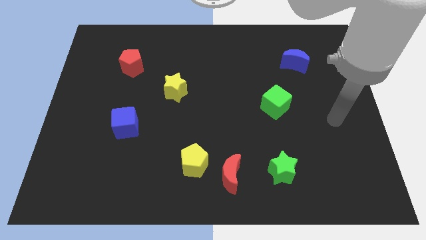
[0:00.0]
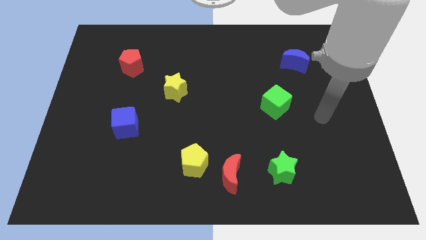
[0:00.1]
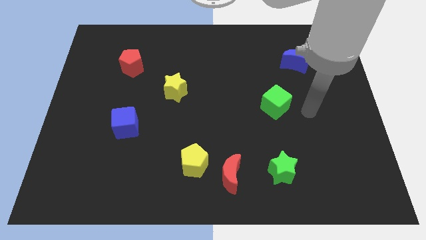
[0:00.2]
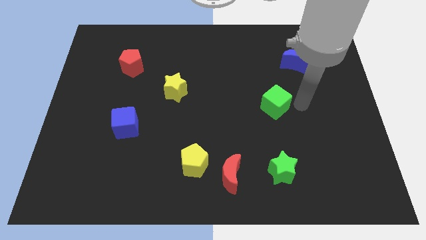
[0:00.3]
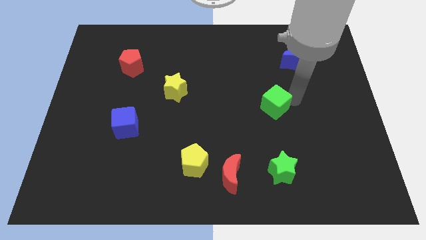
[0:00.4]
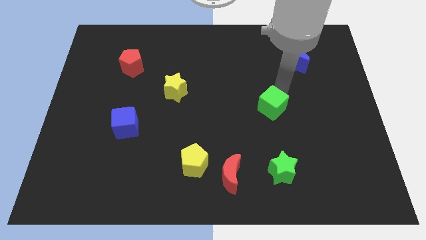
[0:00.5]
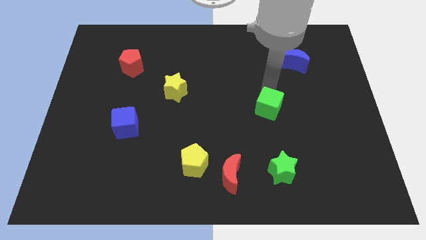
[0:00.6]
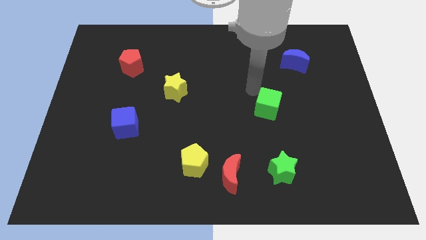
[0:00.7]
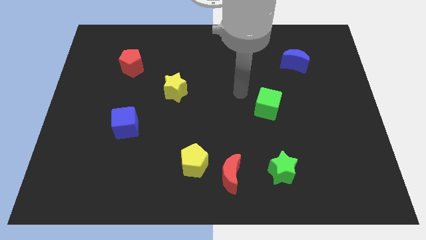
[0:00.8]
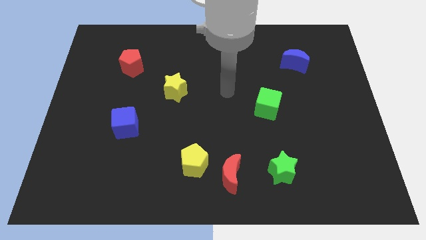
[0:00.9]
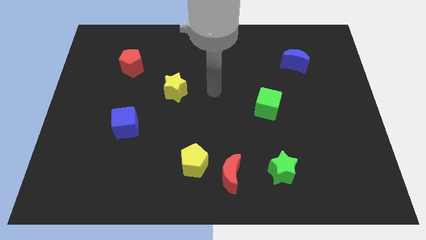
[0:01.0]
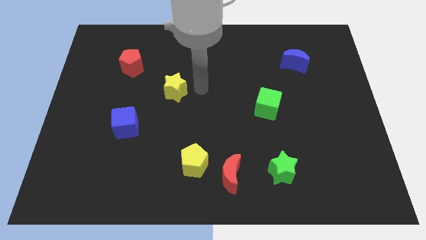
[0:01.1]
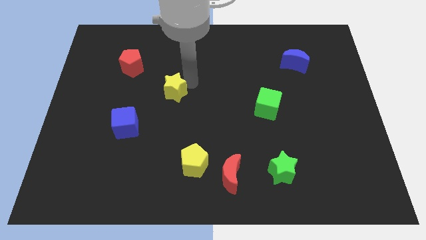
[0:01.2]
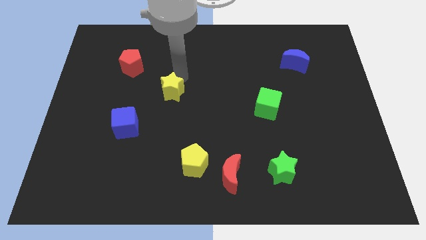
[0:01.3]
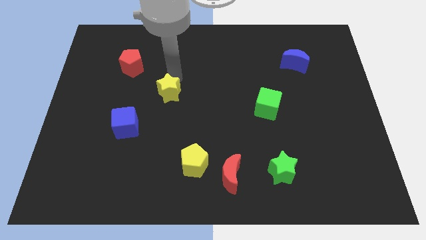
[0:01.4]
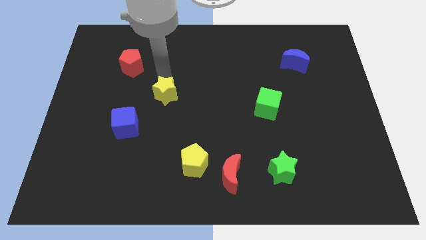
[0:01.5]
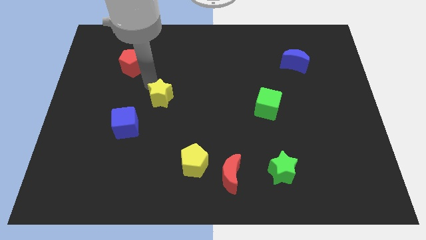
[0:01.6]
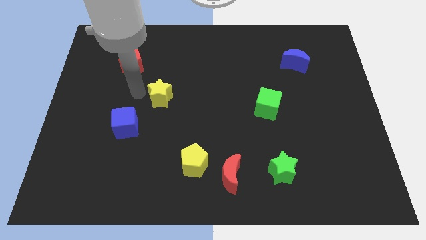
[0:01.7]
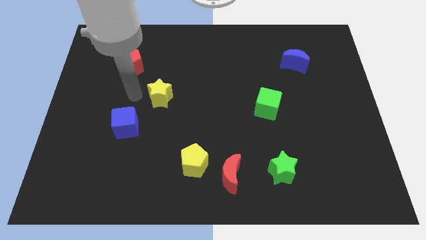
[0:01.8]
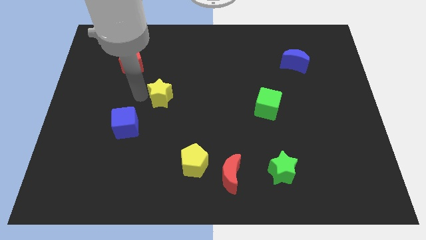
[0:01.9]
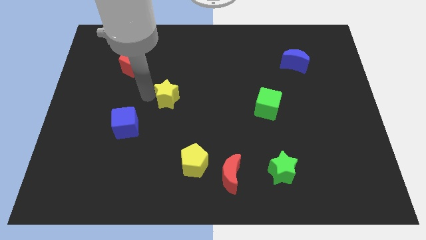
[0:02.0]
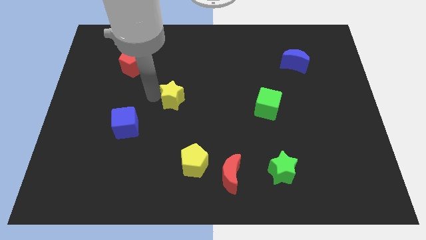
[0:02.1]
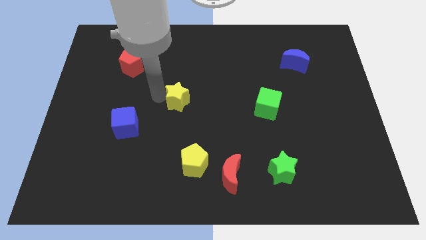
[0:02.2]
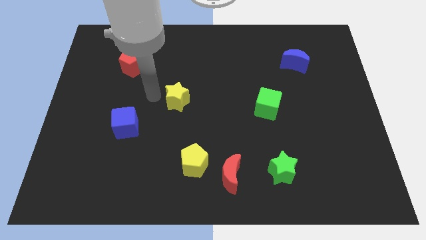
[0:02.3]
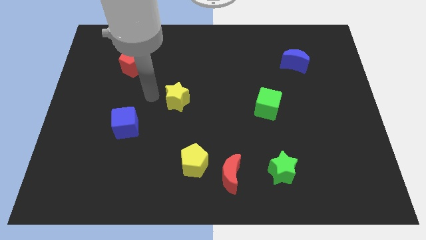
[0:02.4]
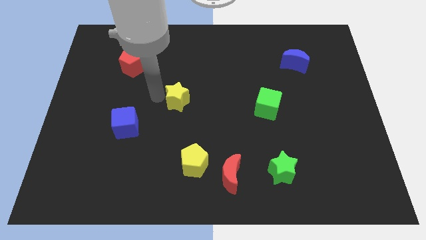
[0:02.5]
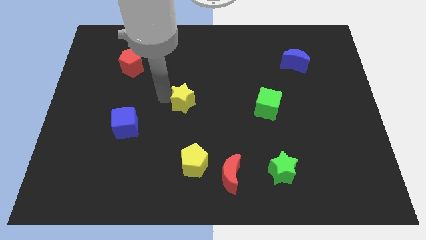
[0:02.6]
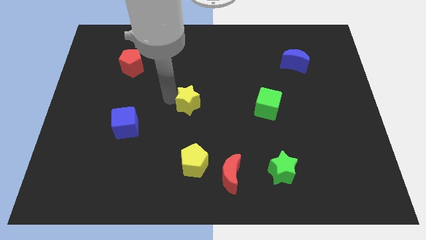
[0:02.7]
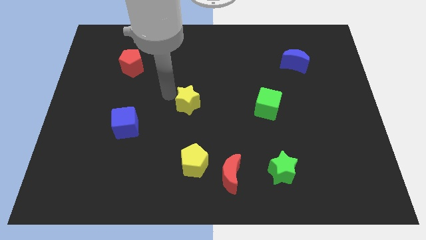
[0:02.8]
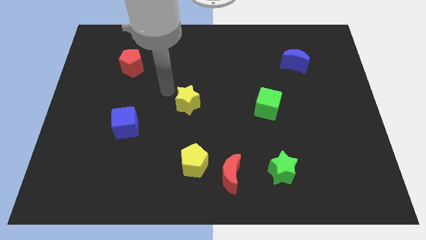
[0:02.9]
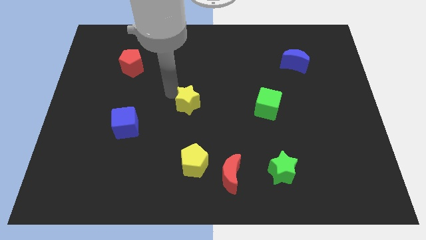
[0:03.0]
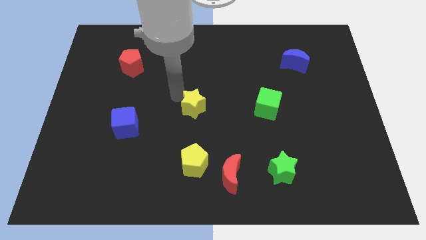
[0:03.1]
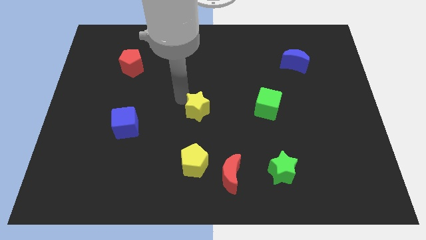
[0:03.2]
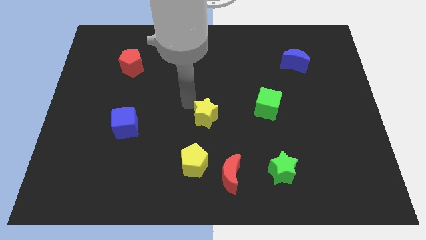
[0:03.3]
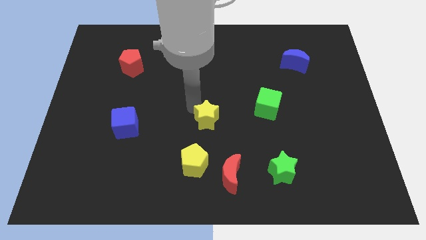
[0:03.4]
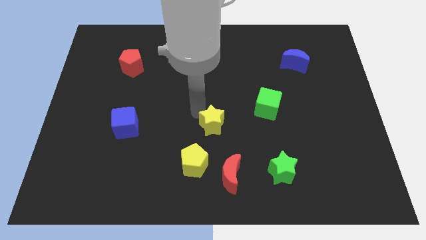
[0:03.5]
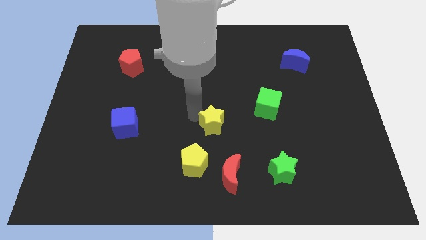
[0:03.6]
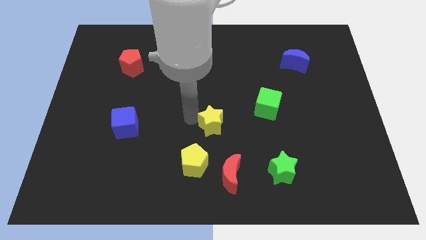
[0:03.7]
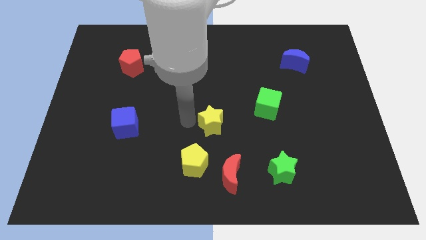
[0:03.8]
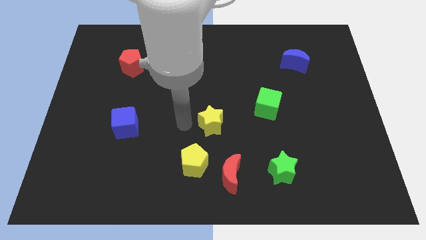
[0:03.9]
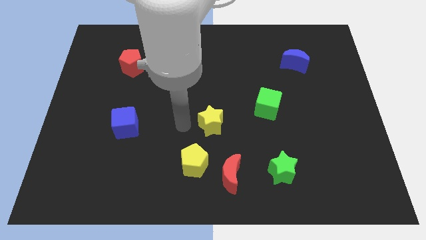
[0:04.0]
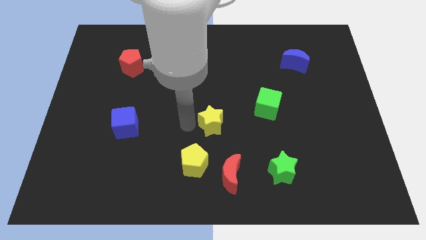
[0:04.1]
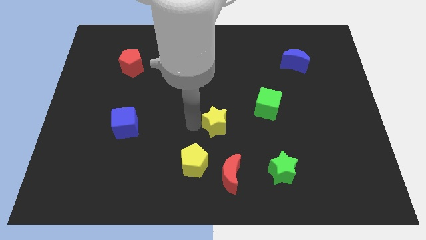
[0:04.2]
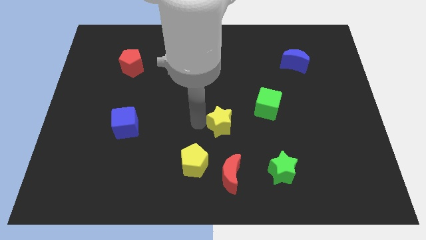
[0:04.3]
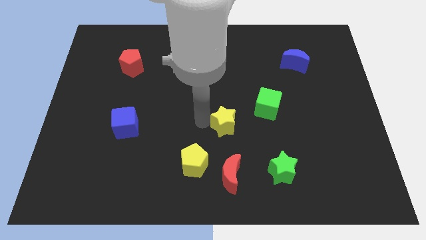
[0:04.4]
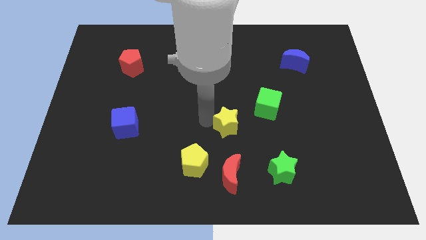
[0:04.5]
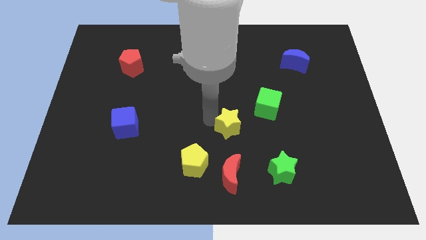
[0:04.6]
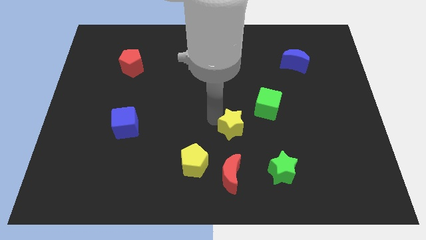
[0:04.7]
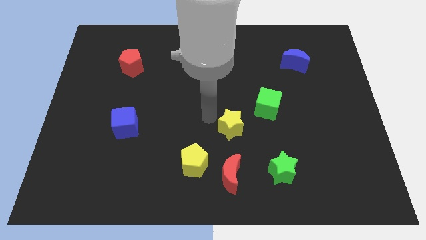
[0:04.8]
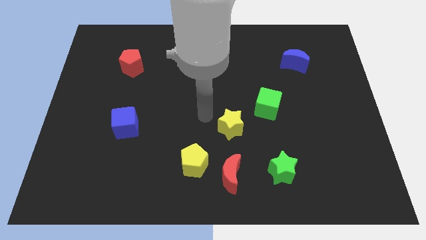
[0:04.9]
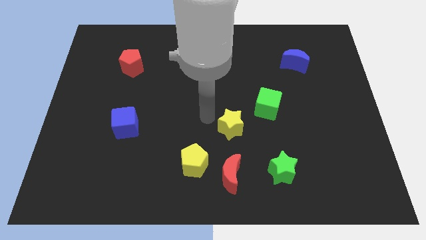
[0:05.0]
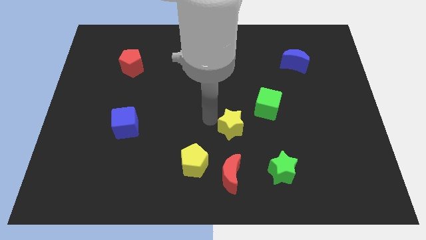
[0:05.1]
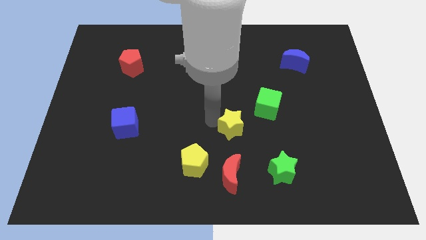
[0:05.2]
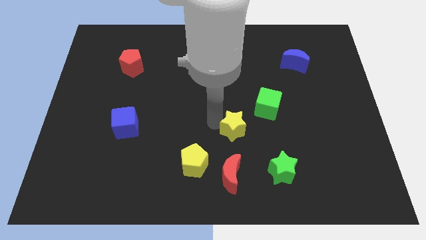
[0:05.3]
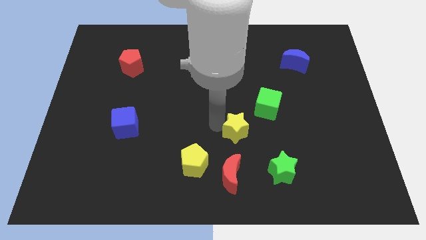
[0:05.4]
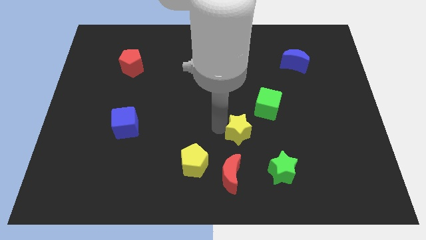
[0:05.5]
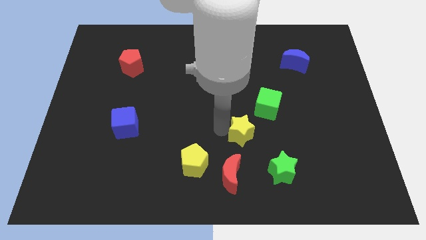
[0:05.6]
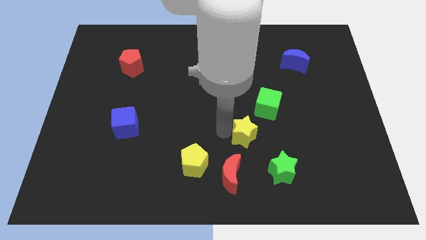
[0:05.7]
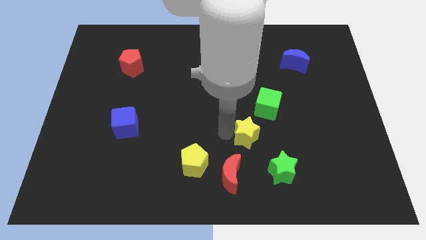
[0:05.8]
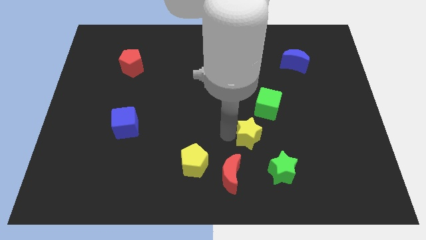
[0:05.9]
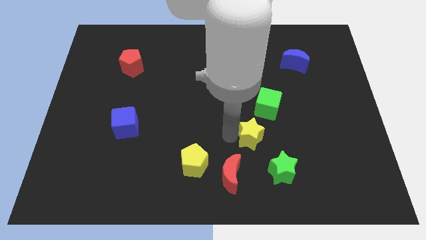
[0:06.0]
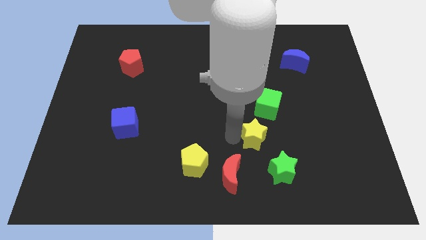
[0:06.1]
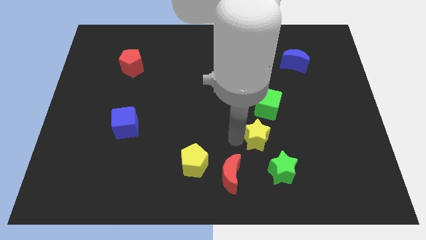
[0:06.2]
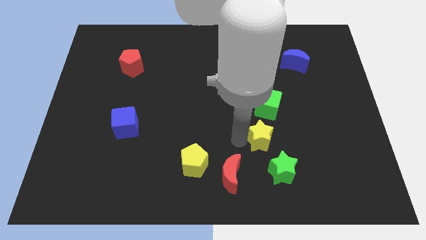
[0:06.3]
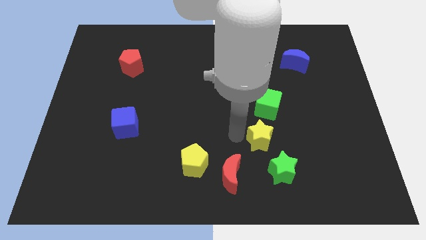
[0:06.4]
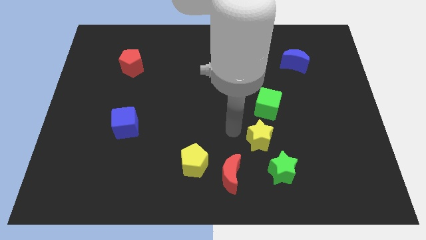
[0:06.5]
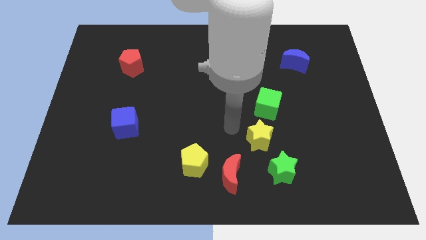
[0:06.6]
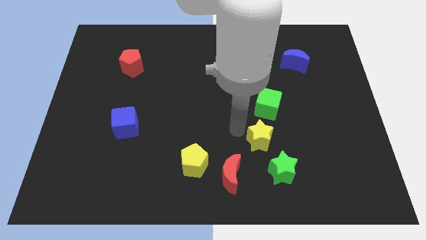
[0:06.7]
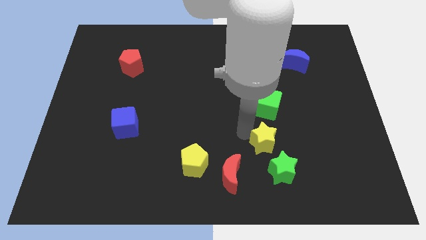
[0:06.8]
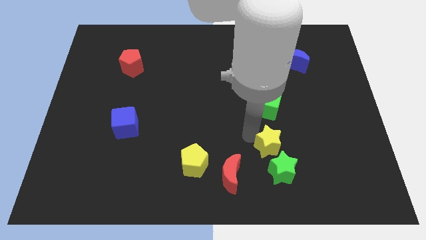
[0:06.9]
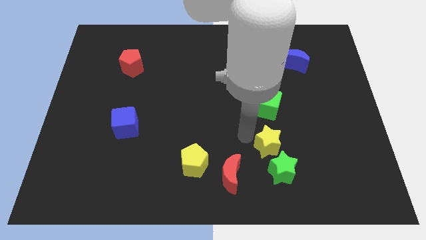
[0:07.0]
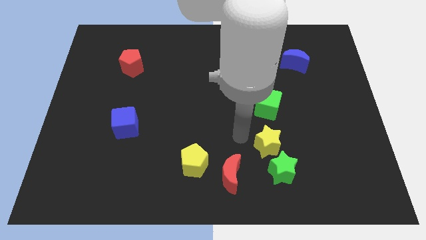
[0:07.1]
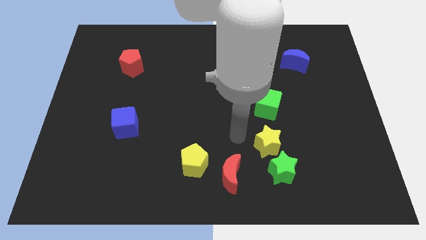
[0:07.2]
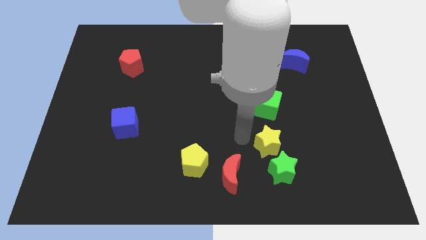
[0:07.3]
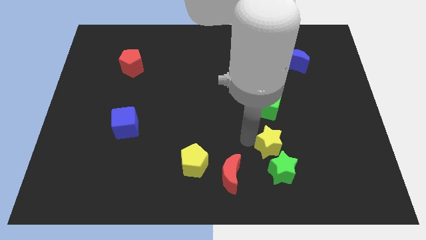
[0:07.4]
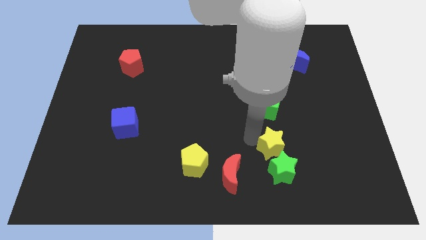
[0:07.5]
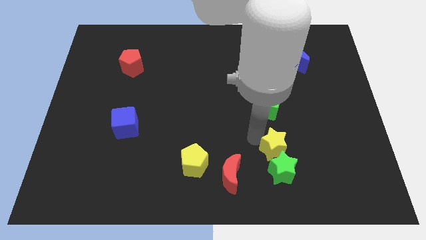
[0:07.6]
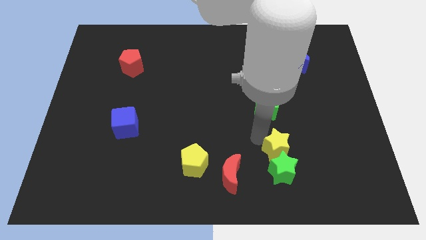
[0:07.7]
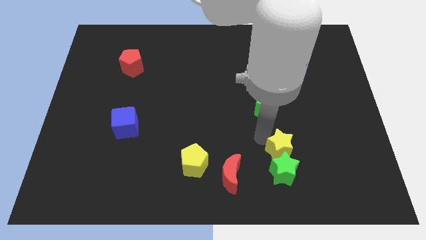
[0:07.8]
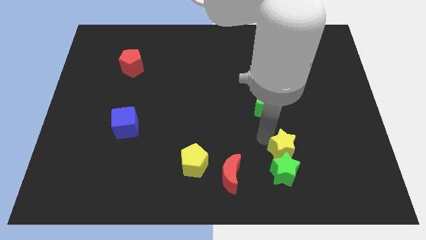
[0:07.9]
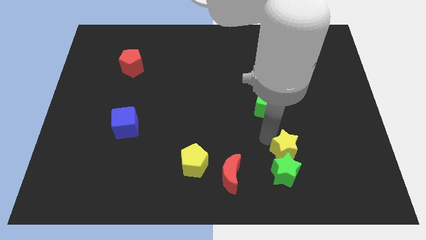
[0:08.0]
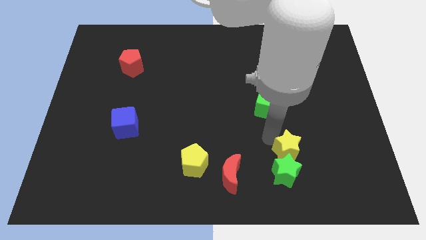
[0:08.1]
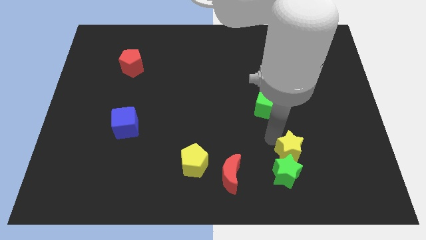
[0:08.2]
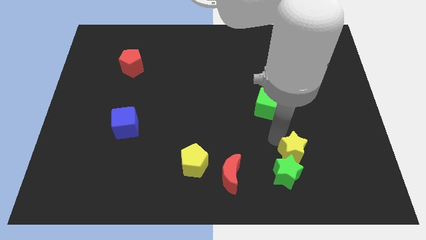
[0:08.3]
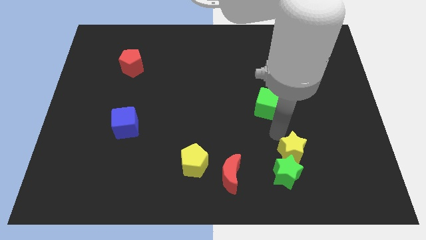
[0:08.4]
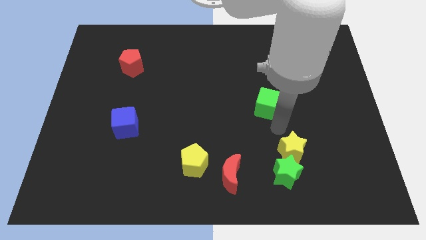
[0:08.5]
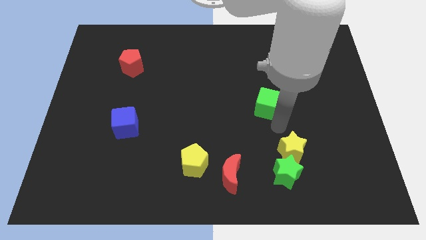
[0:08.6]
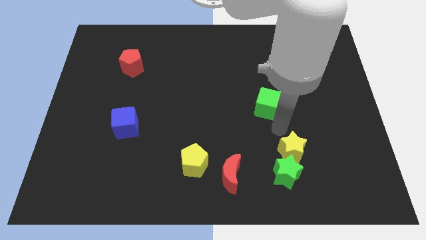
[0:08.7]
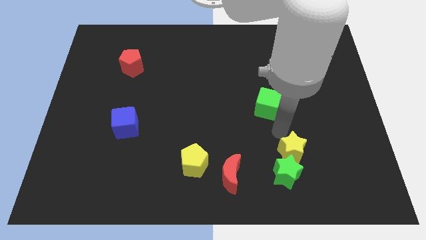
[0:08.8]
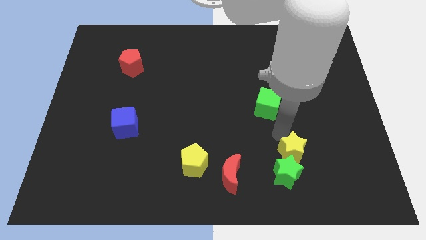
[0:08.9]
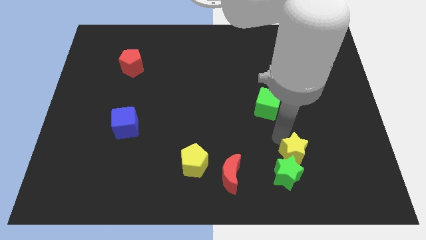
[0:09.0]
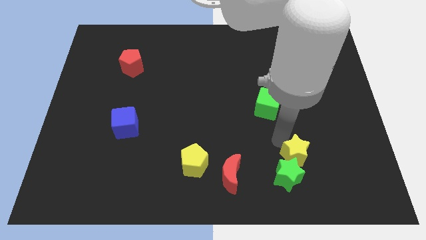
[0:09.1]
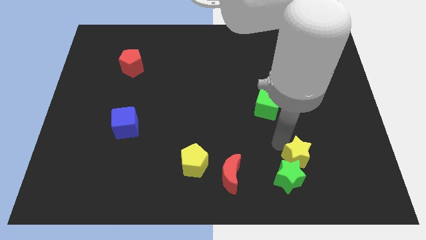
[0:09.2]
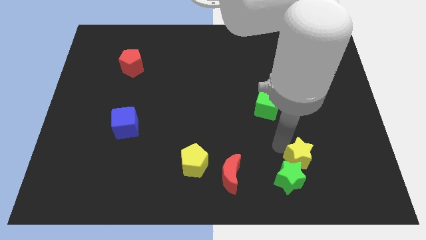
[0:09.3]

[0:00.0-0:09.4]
push the yellow star just right of the red moon
